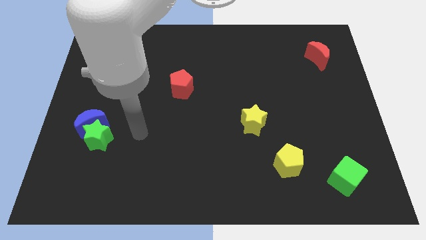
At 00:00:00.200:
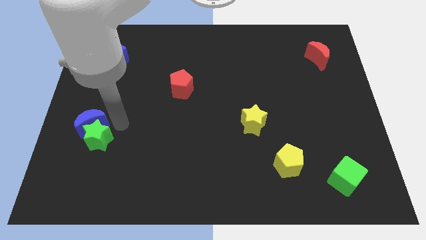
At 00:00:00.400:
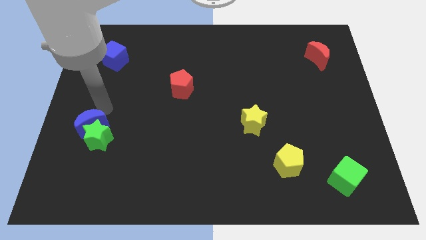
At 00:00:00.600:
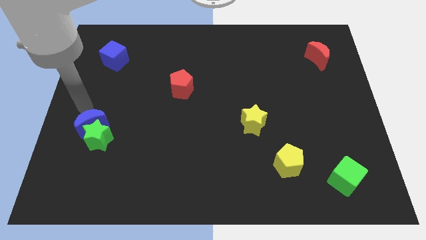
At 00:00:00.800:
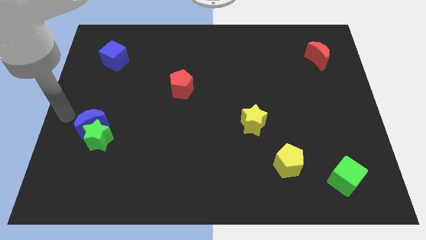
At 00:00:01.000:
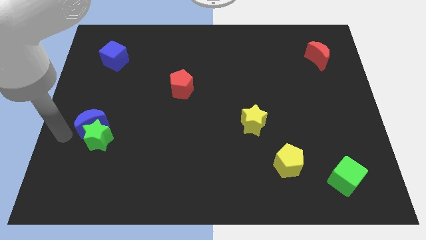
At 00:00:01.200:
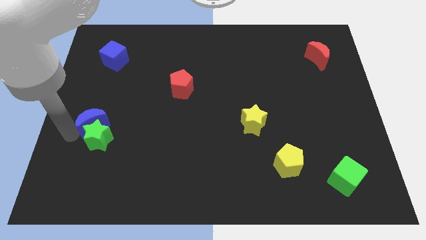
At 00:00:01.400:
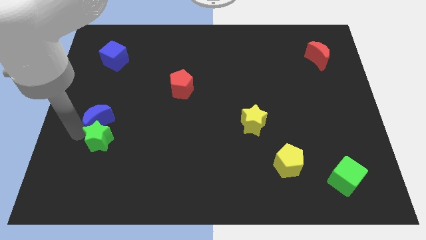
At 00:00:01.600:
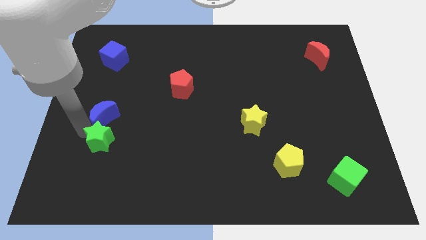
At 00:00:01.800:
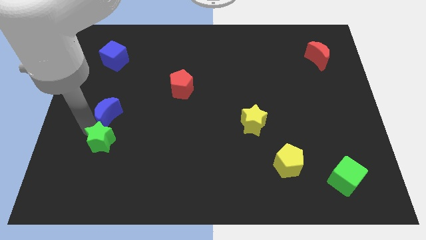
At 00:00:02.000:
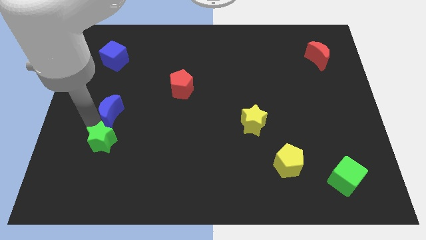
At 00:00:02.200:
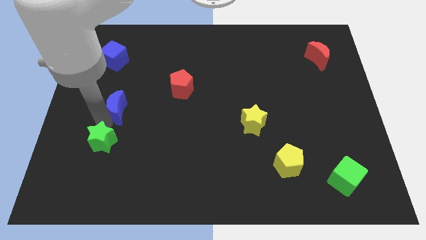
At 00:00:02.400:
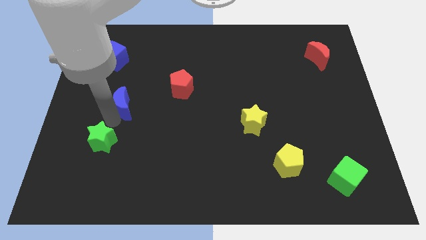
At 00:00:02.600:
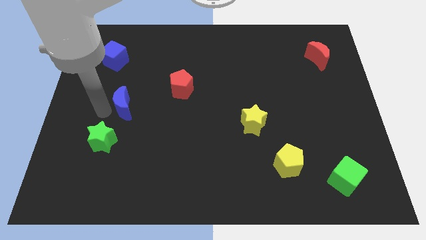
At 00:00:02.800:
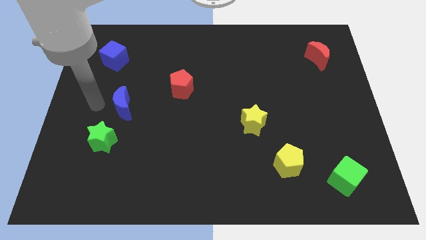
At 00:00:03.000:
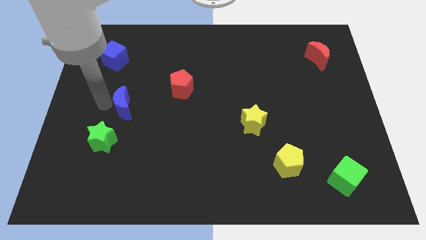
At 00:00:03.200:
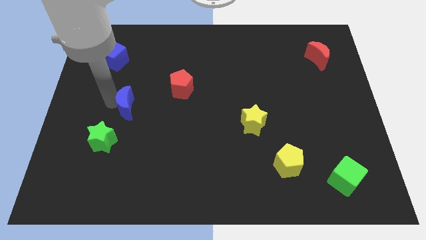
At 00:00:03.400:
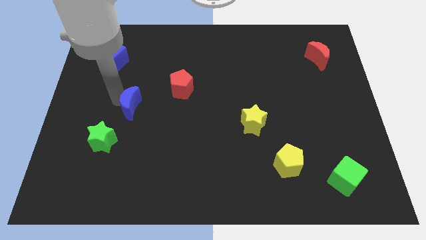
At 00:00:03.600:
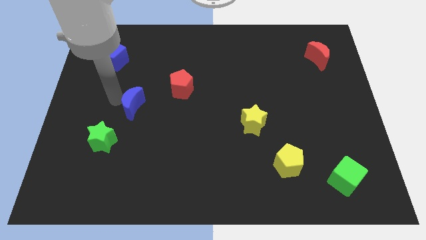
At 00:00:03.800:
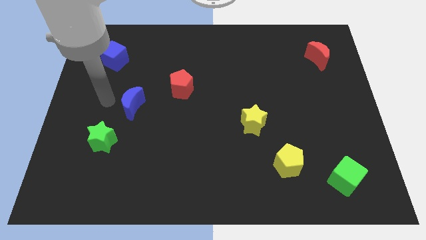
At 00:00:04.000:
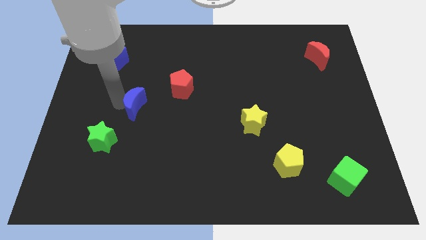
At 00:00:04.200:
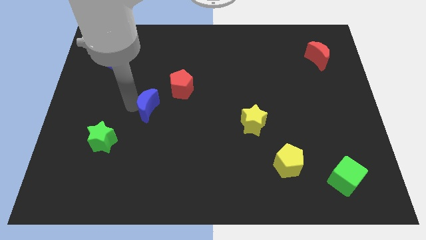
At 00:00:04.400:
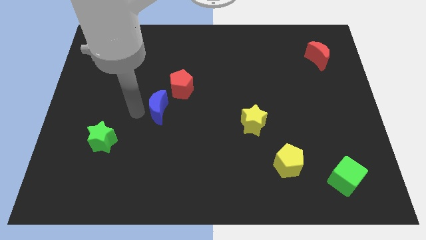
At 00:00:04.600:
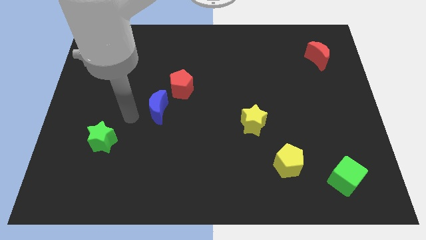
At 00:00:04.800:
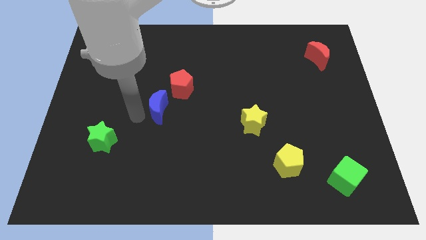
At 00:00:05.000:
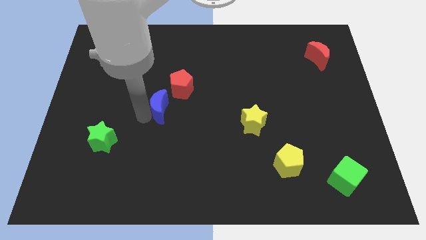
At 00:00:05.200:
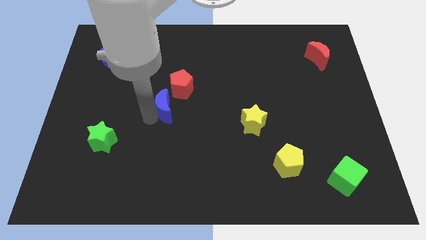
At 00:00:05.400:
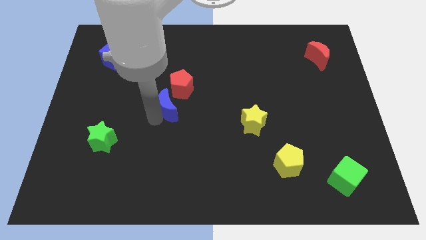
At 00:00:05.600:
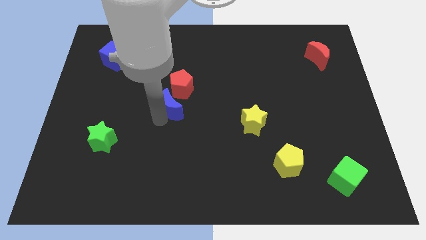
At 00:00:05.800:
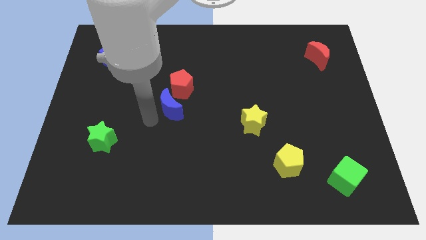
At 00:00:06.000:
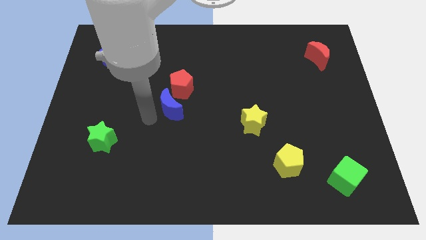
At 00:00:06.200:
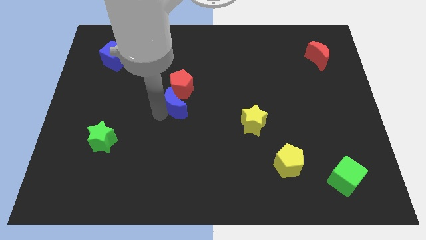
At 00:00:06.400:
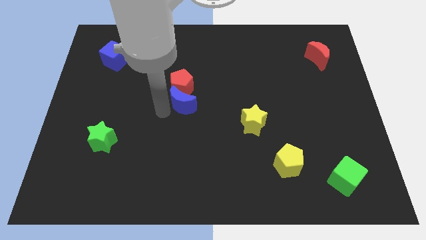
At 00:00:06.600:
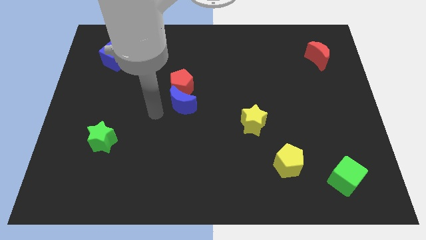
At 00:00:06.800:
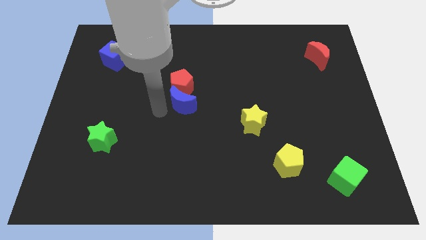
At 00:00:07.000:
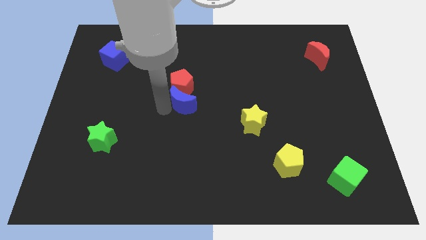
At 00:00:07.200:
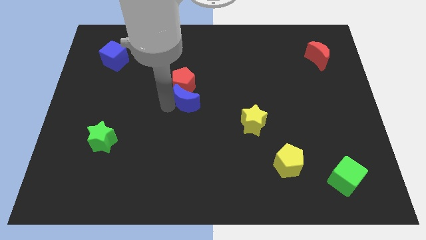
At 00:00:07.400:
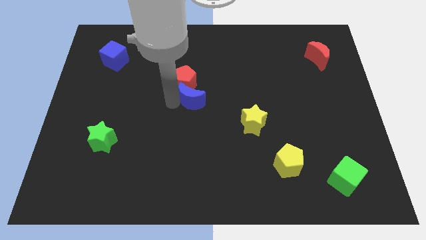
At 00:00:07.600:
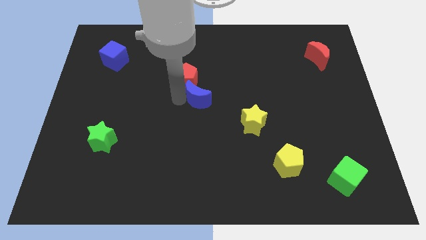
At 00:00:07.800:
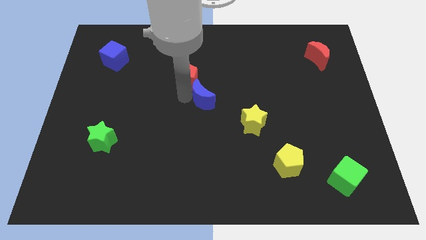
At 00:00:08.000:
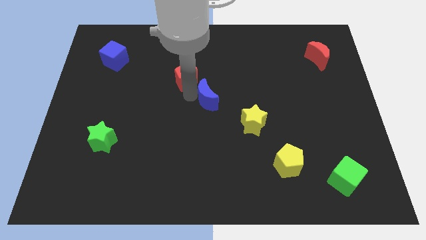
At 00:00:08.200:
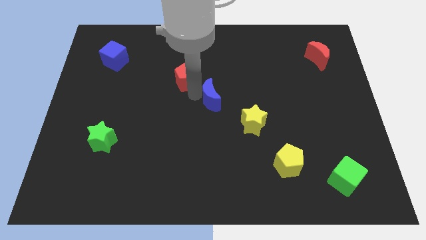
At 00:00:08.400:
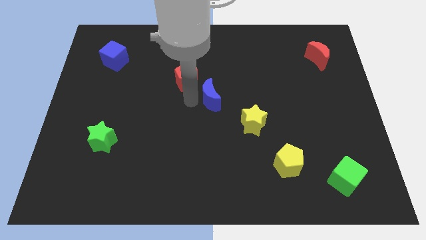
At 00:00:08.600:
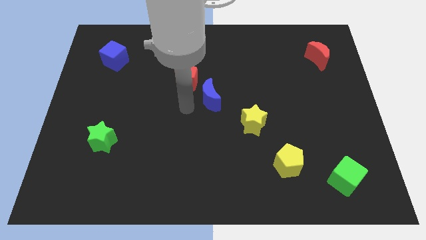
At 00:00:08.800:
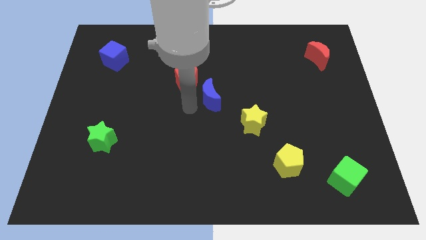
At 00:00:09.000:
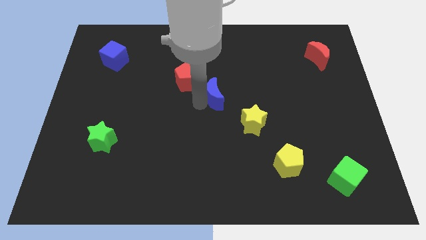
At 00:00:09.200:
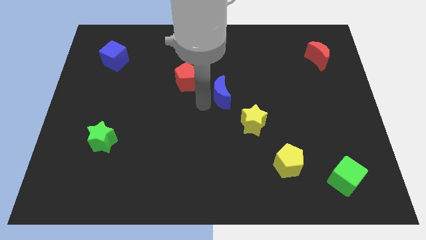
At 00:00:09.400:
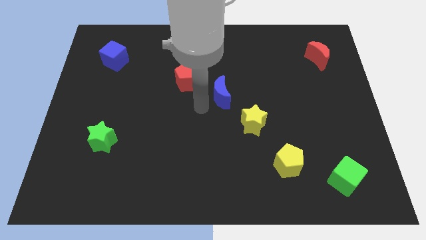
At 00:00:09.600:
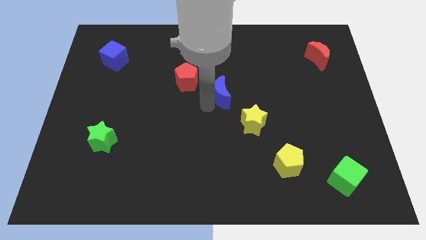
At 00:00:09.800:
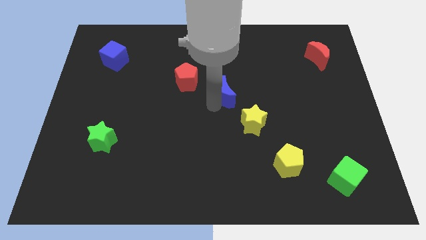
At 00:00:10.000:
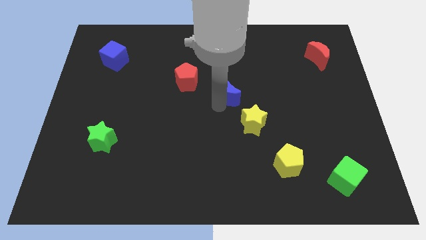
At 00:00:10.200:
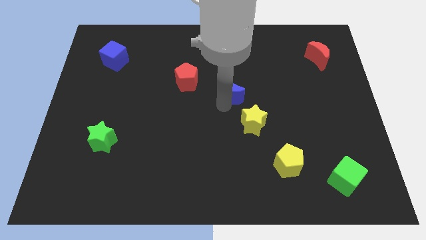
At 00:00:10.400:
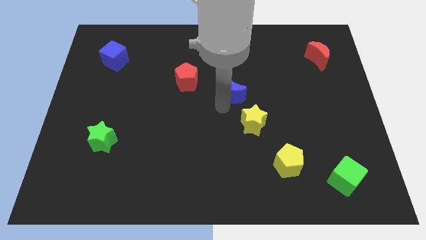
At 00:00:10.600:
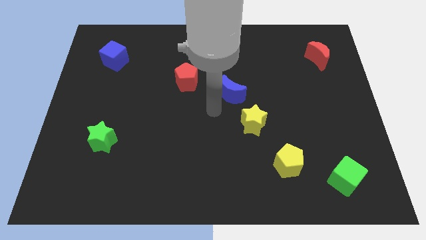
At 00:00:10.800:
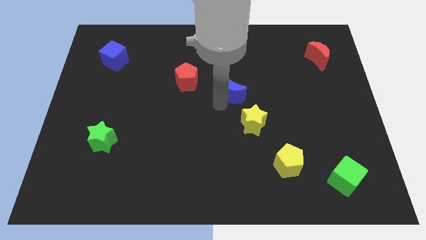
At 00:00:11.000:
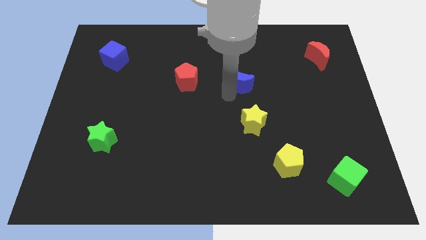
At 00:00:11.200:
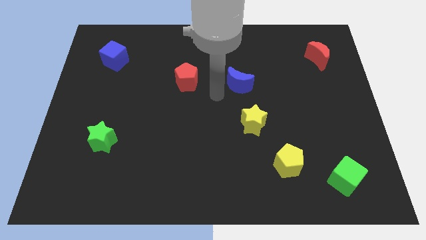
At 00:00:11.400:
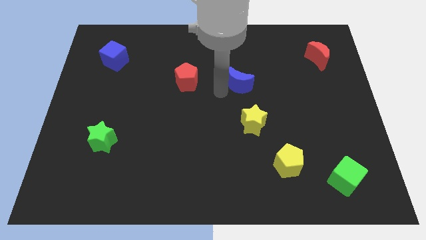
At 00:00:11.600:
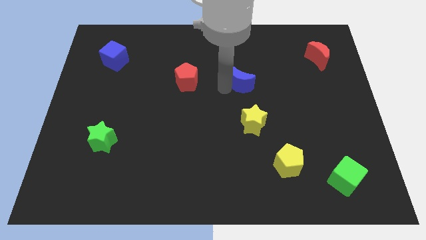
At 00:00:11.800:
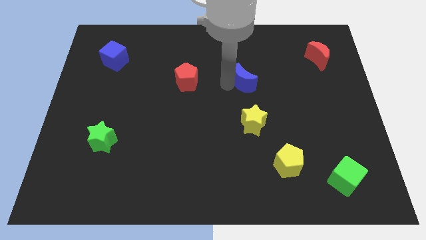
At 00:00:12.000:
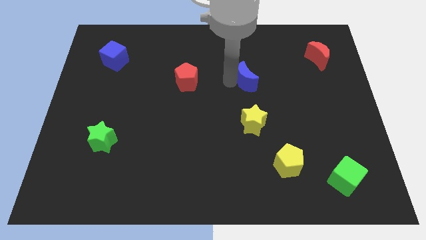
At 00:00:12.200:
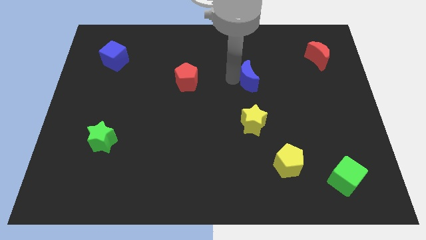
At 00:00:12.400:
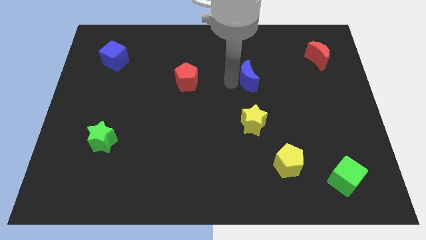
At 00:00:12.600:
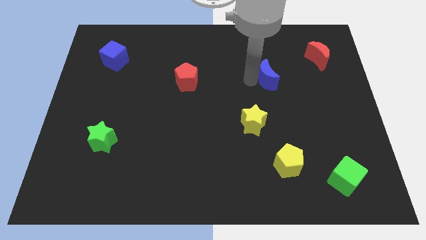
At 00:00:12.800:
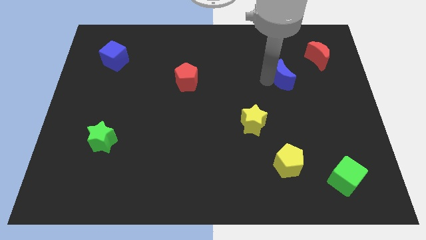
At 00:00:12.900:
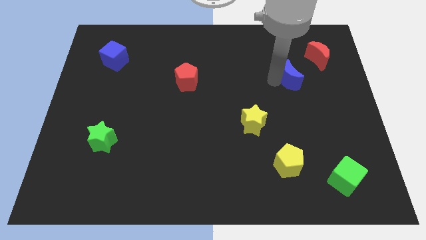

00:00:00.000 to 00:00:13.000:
put the blue moon to the bottom left of the red moon
